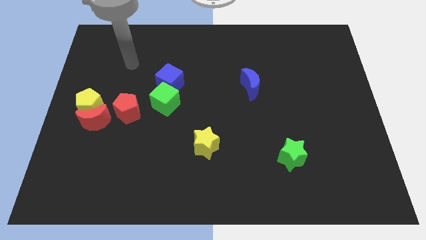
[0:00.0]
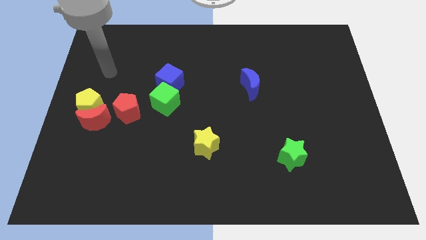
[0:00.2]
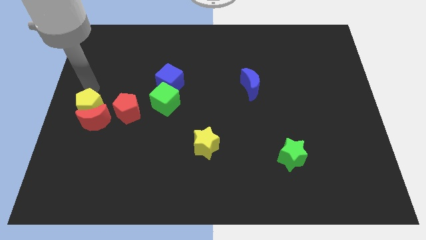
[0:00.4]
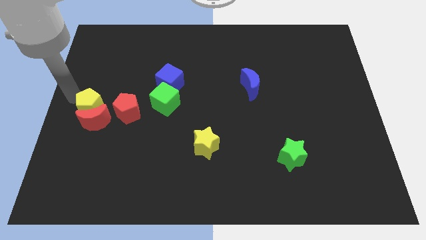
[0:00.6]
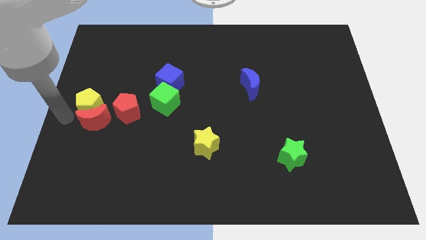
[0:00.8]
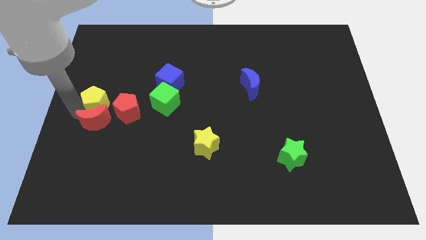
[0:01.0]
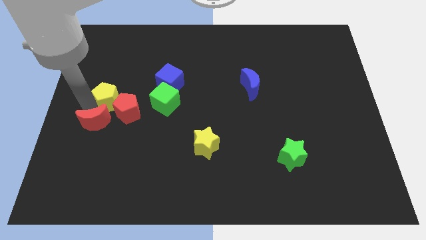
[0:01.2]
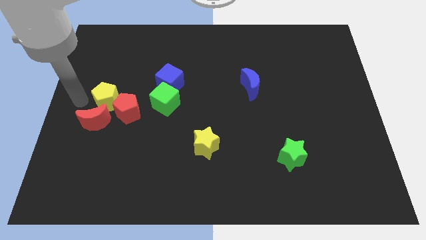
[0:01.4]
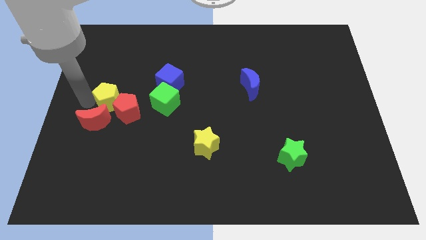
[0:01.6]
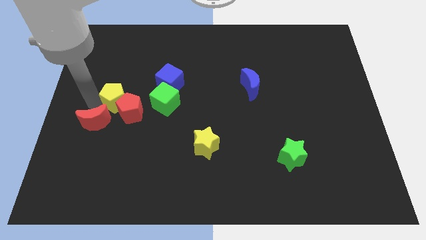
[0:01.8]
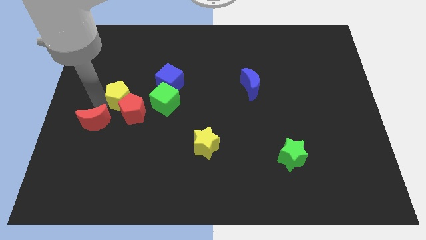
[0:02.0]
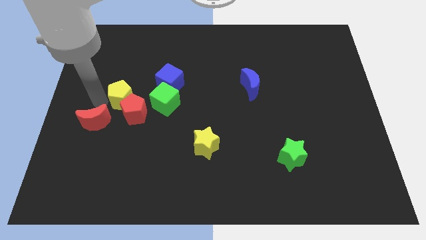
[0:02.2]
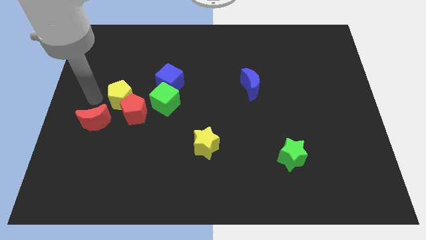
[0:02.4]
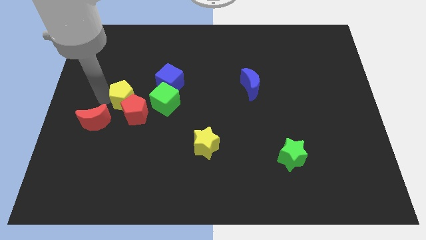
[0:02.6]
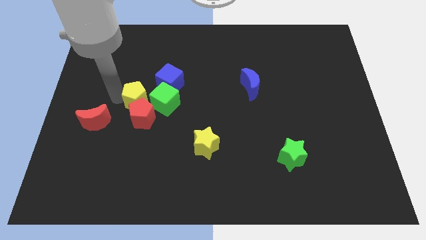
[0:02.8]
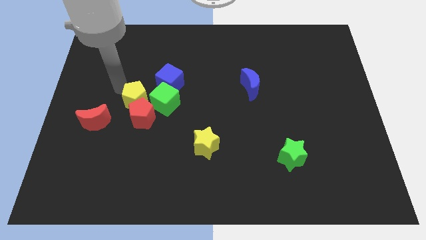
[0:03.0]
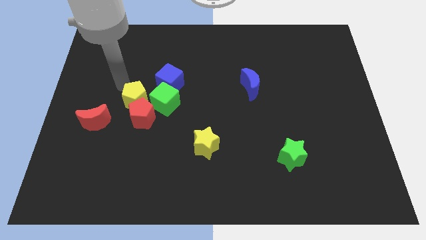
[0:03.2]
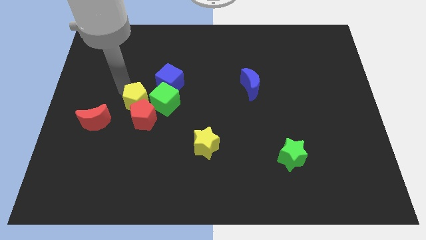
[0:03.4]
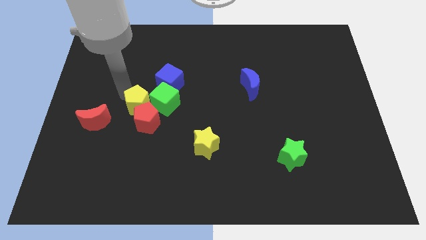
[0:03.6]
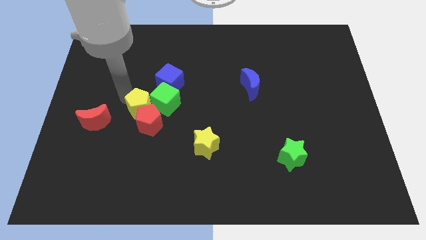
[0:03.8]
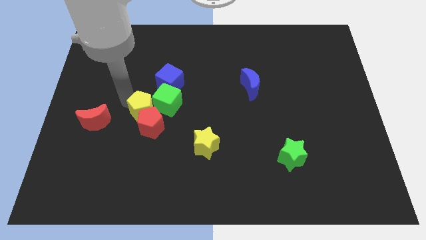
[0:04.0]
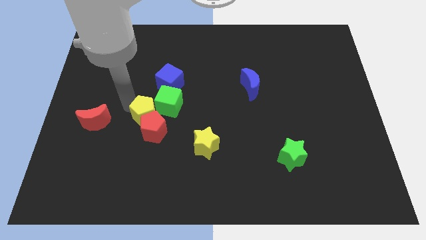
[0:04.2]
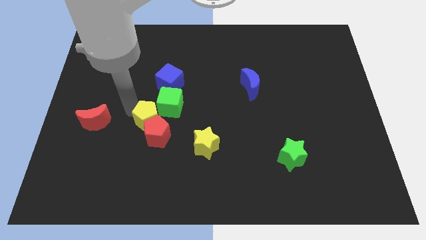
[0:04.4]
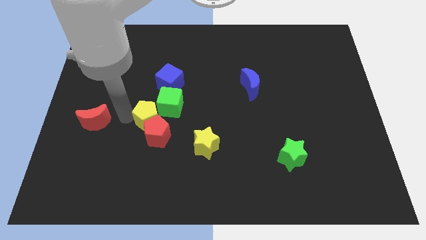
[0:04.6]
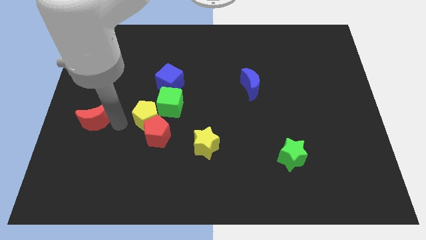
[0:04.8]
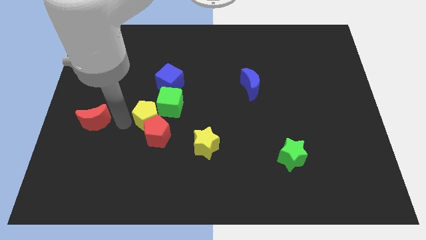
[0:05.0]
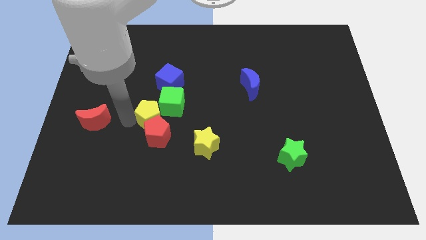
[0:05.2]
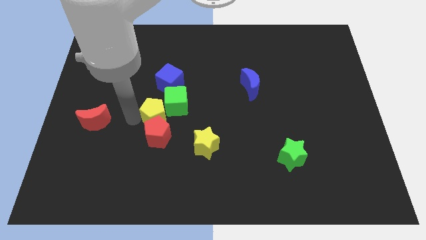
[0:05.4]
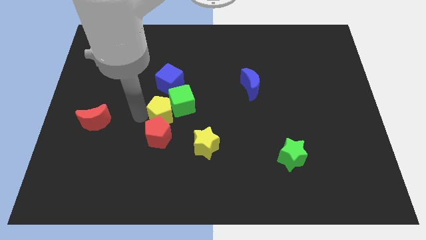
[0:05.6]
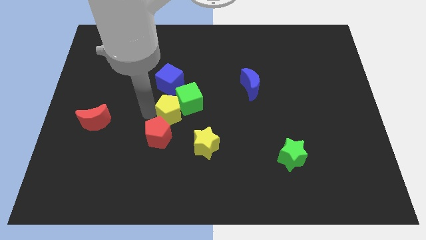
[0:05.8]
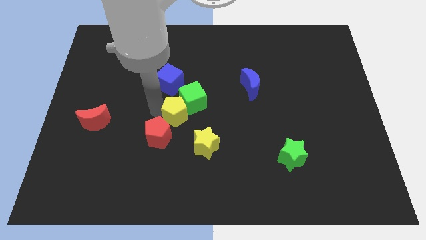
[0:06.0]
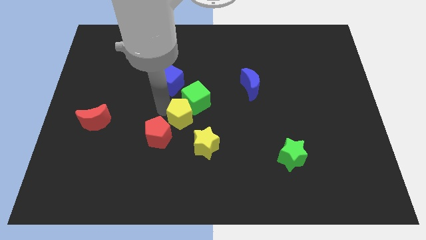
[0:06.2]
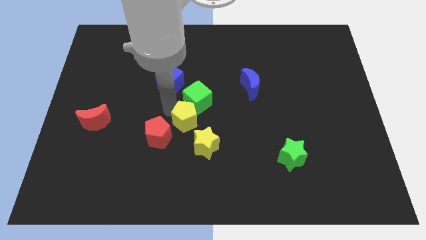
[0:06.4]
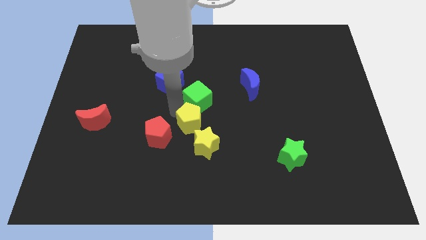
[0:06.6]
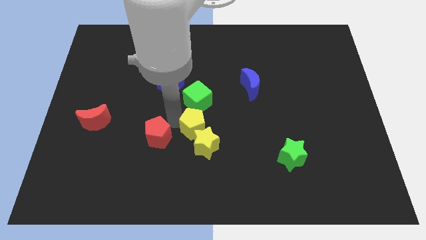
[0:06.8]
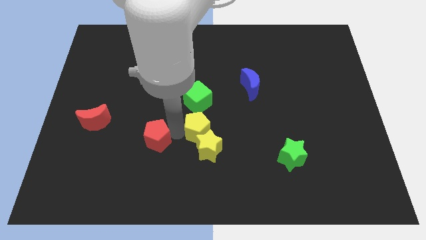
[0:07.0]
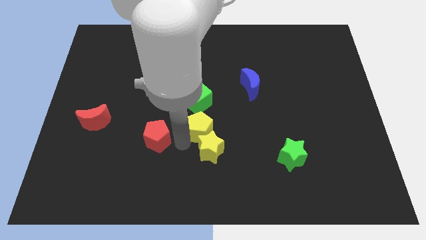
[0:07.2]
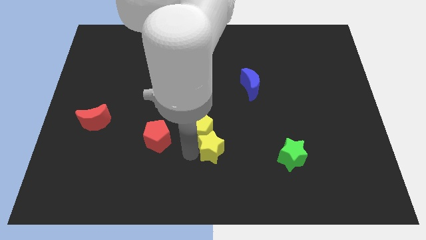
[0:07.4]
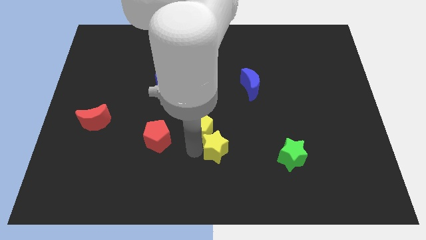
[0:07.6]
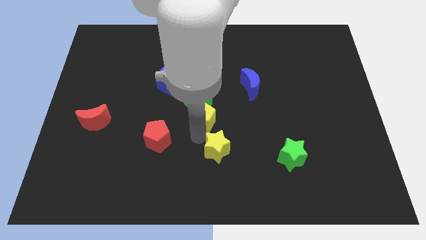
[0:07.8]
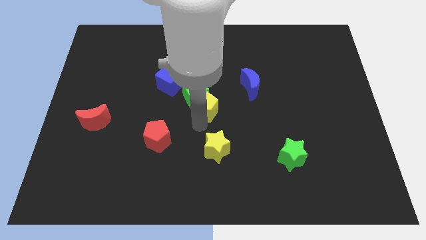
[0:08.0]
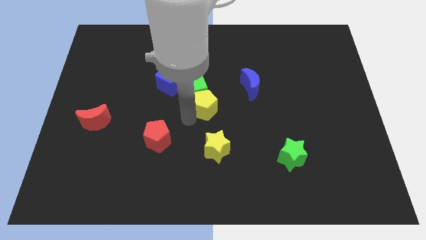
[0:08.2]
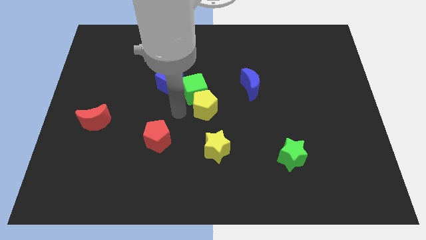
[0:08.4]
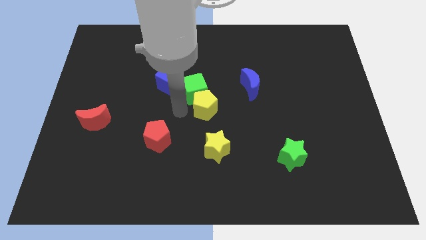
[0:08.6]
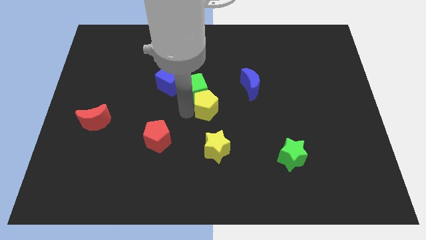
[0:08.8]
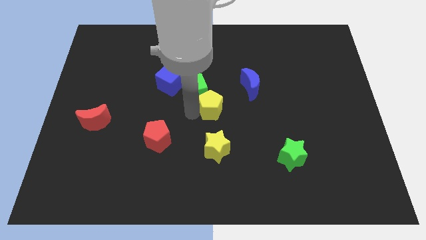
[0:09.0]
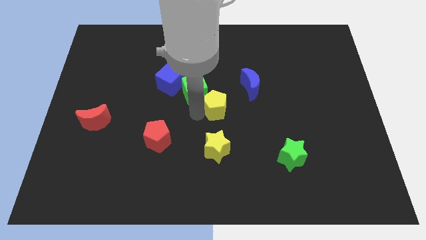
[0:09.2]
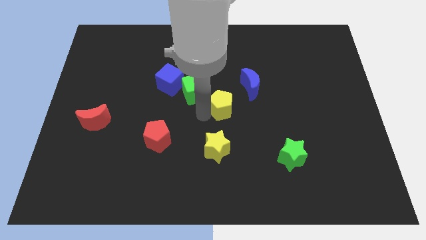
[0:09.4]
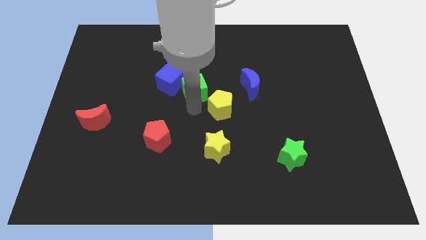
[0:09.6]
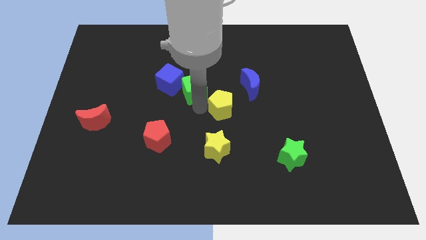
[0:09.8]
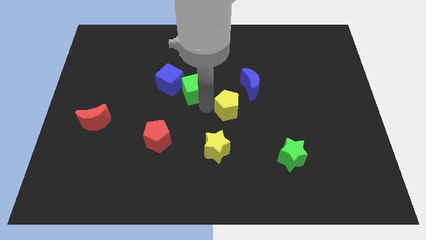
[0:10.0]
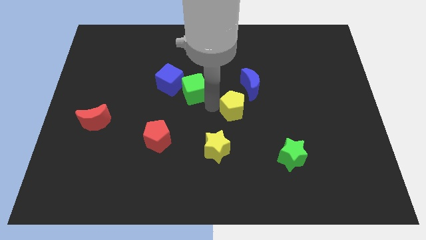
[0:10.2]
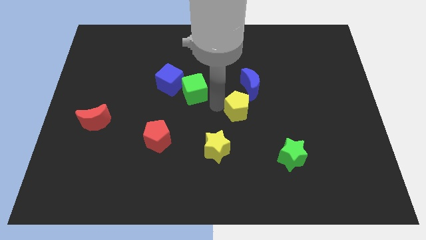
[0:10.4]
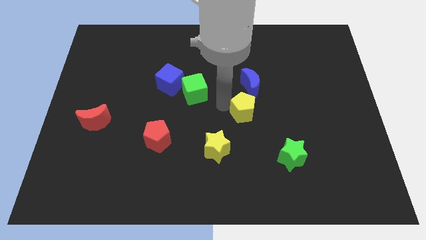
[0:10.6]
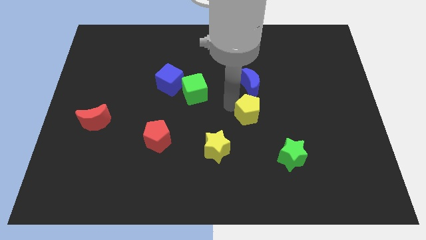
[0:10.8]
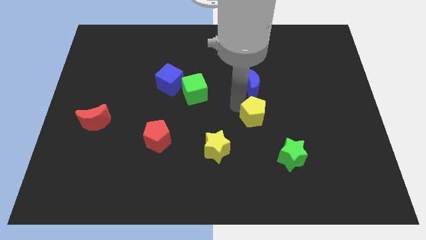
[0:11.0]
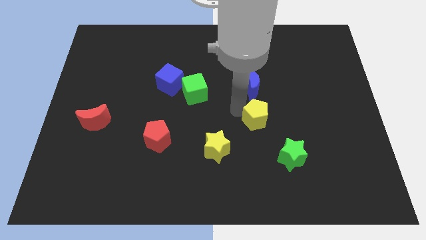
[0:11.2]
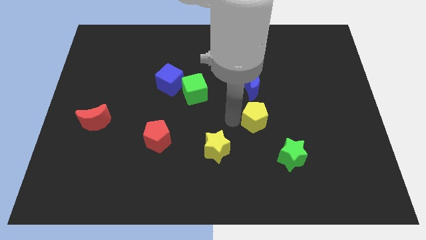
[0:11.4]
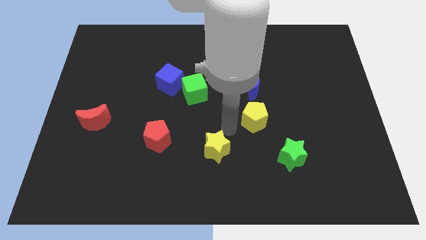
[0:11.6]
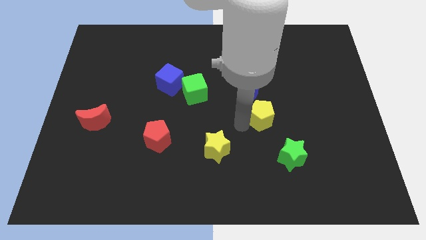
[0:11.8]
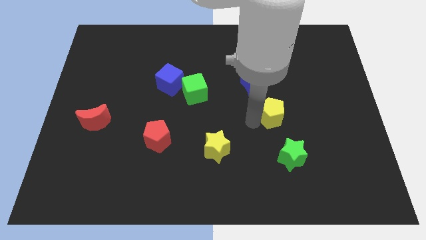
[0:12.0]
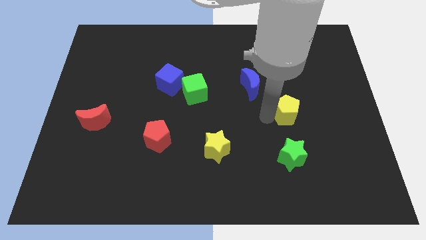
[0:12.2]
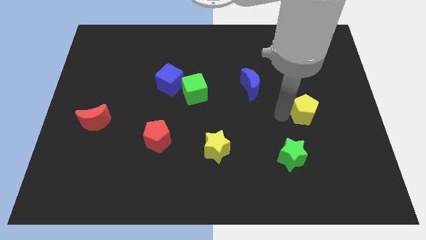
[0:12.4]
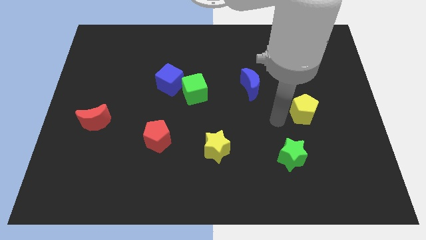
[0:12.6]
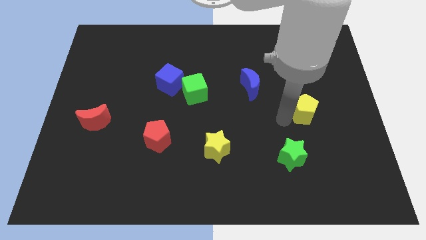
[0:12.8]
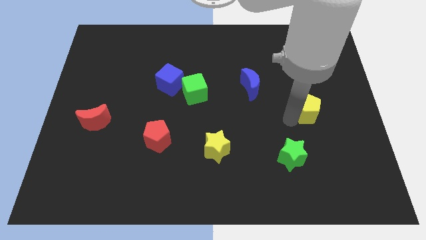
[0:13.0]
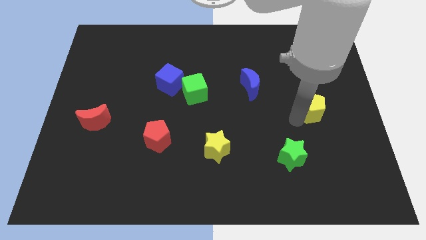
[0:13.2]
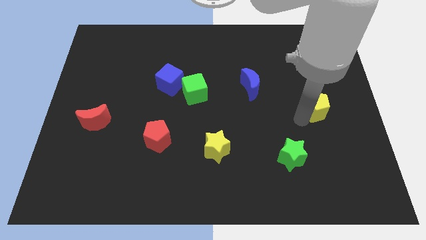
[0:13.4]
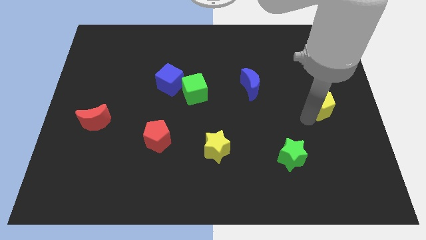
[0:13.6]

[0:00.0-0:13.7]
push the yellow pentagon to the right side of the board
